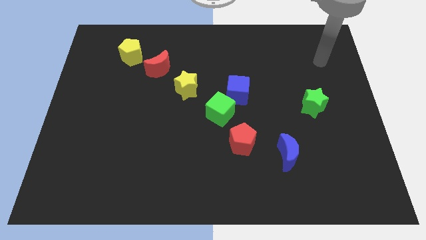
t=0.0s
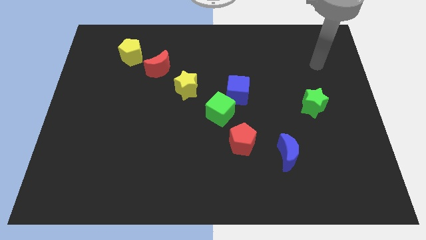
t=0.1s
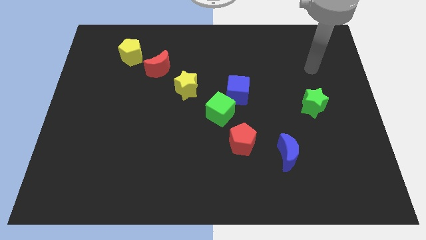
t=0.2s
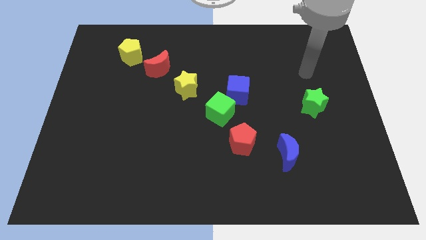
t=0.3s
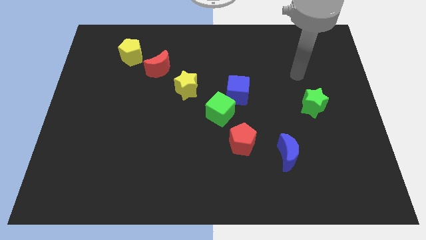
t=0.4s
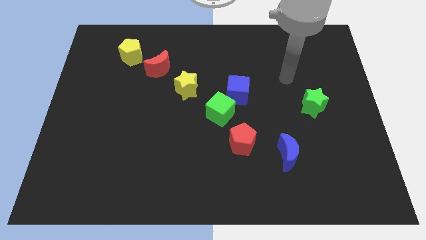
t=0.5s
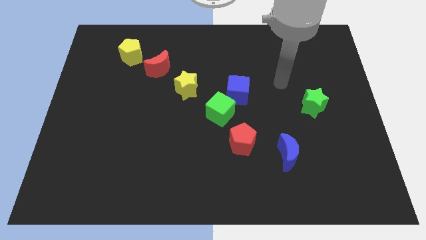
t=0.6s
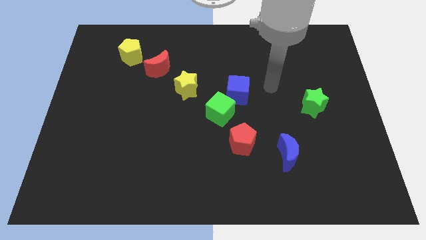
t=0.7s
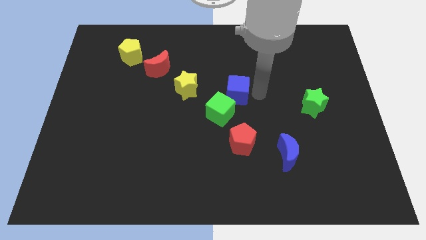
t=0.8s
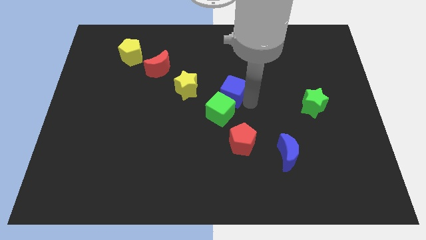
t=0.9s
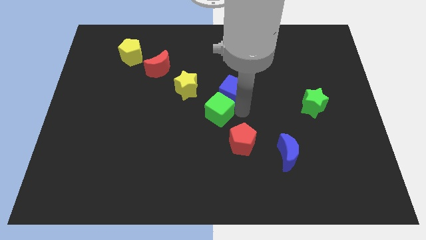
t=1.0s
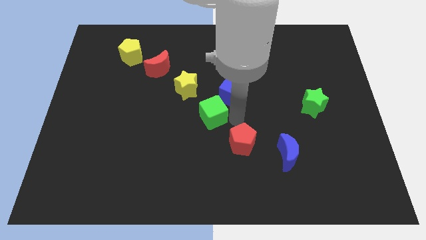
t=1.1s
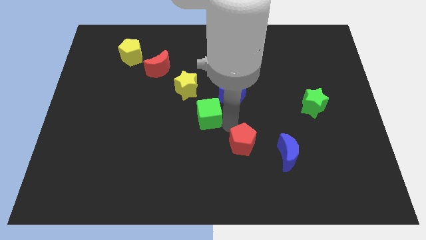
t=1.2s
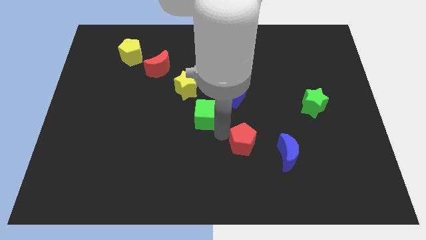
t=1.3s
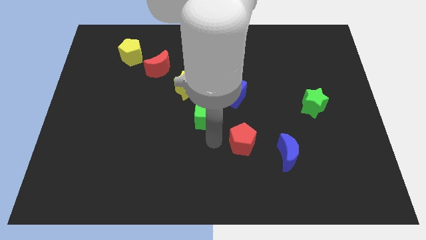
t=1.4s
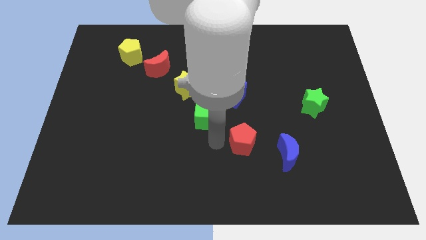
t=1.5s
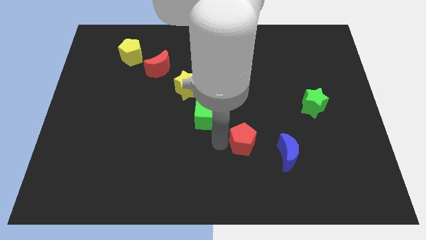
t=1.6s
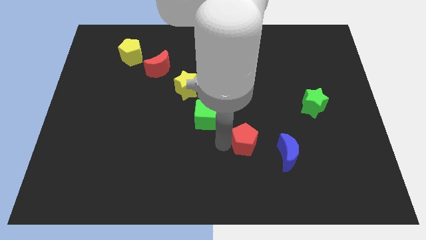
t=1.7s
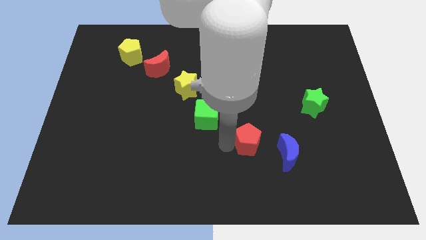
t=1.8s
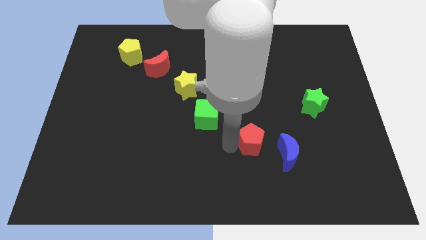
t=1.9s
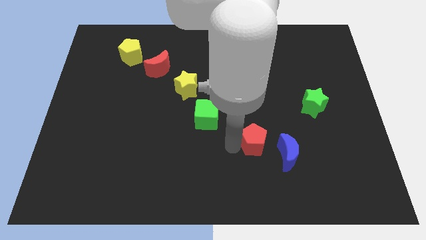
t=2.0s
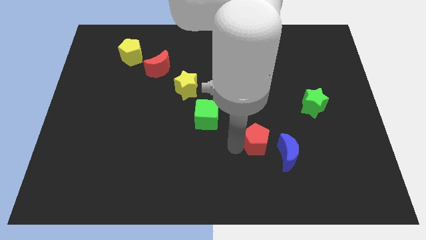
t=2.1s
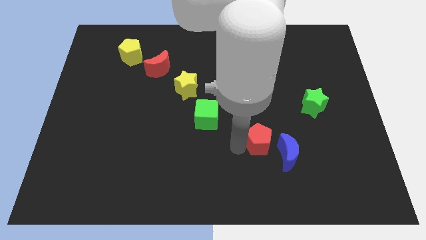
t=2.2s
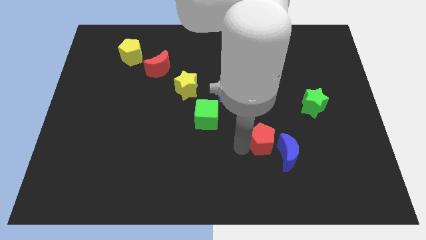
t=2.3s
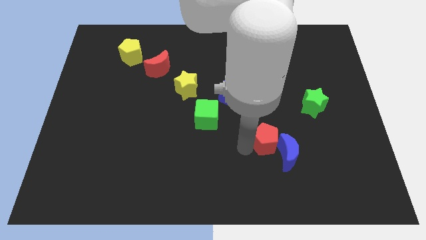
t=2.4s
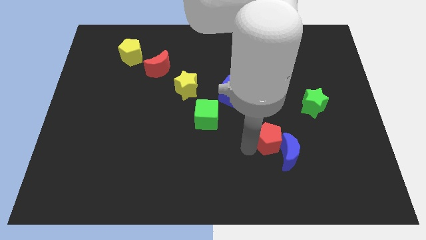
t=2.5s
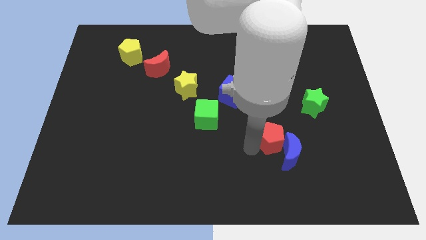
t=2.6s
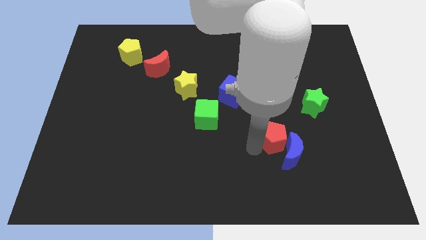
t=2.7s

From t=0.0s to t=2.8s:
slightly move the red pentagon right

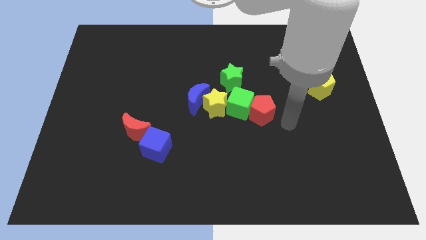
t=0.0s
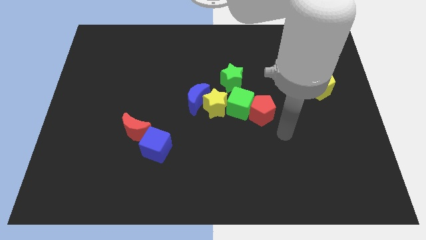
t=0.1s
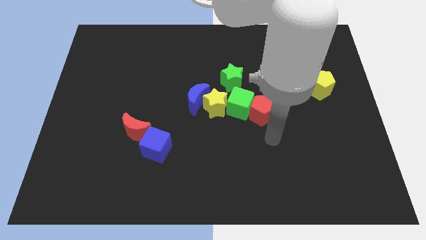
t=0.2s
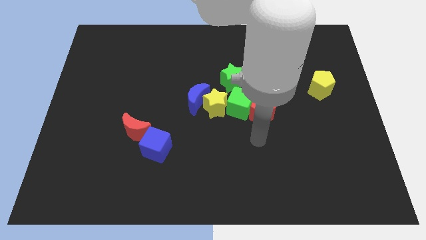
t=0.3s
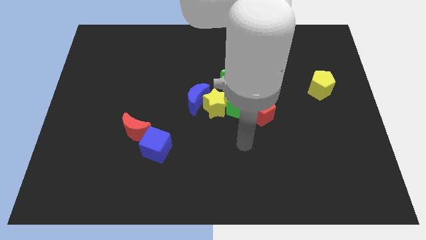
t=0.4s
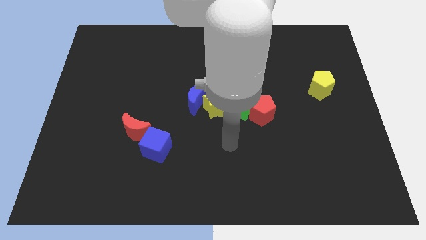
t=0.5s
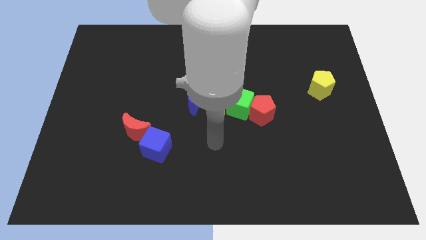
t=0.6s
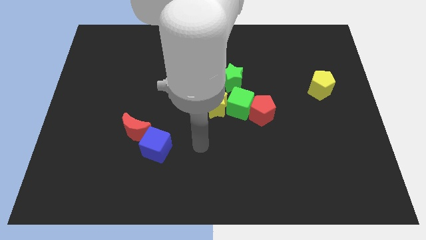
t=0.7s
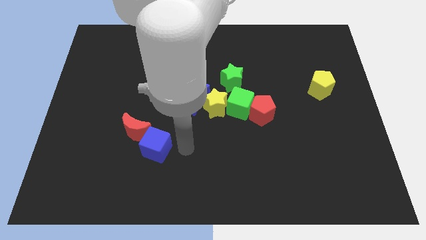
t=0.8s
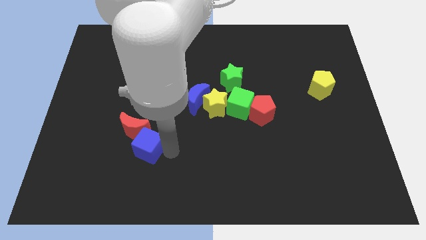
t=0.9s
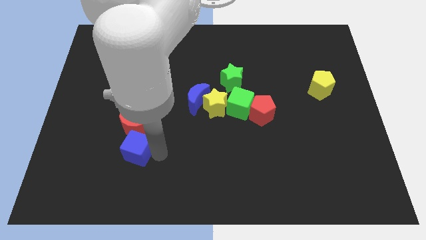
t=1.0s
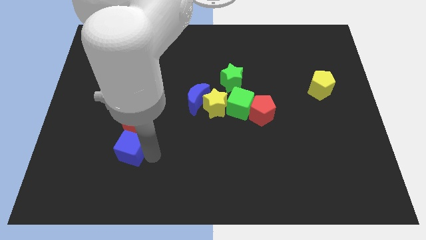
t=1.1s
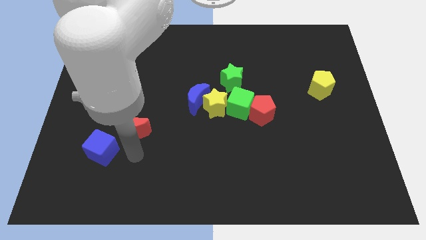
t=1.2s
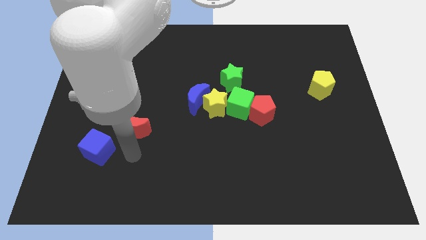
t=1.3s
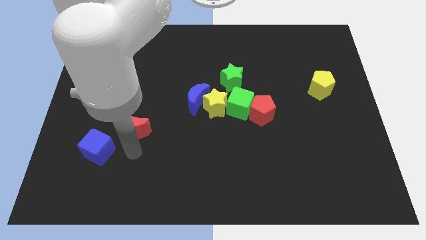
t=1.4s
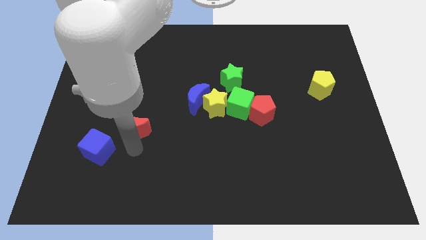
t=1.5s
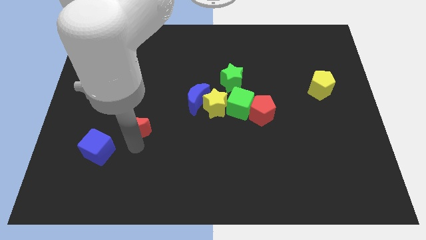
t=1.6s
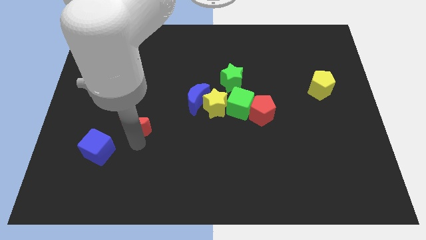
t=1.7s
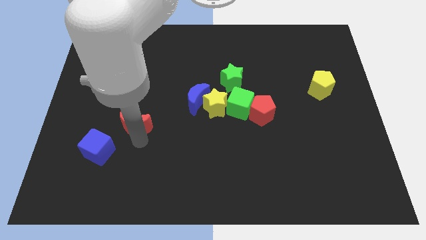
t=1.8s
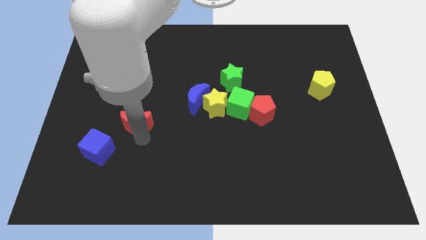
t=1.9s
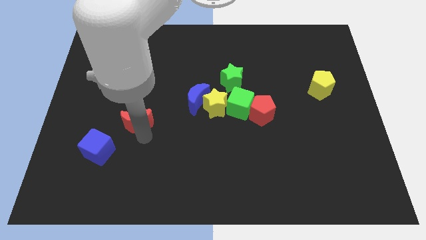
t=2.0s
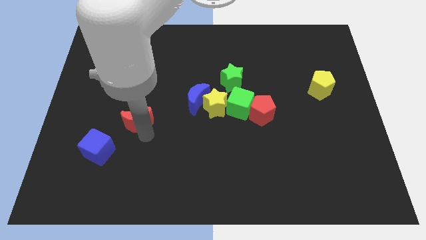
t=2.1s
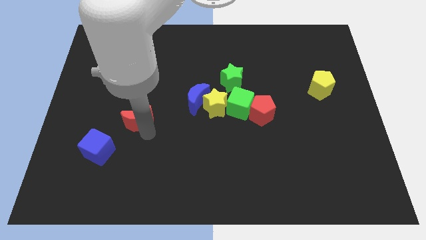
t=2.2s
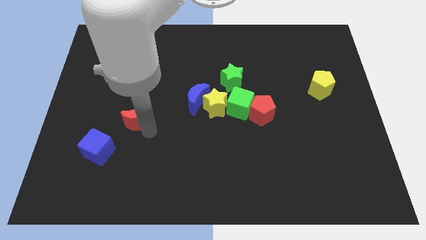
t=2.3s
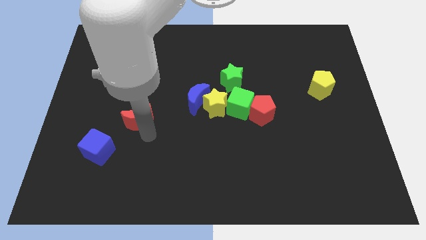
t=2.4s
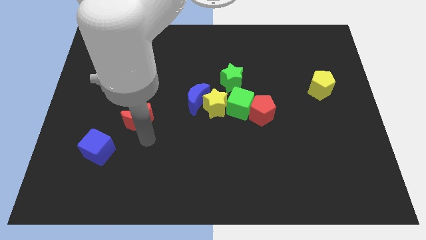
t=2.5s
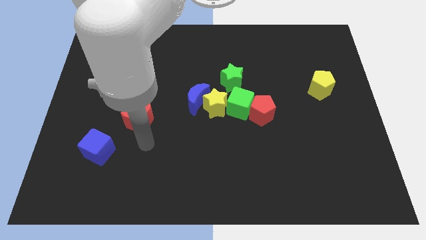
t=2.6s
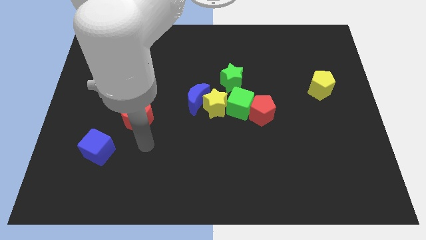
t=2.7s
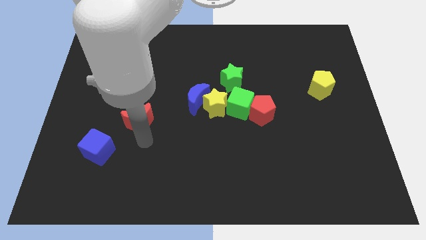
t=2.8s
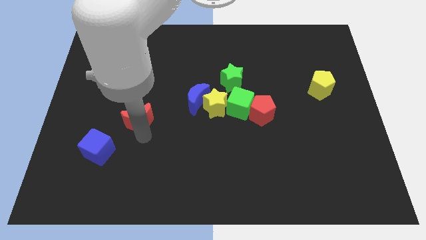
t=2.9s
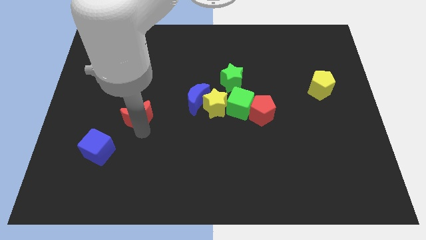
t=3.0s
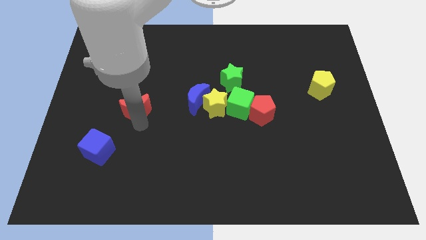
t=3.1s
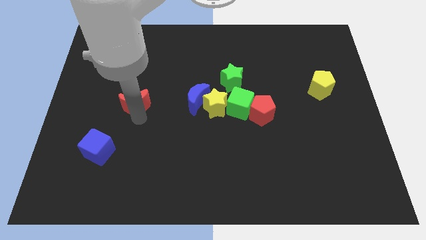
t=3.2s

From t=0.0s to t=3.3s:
slightly move the red moon upwards

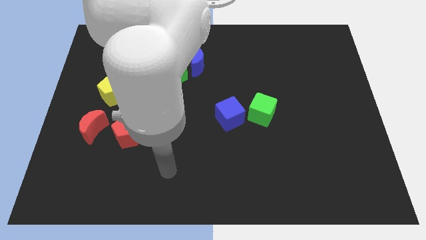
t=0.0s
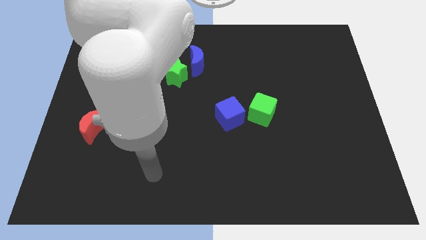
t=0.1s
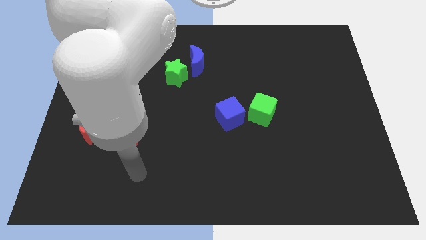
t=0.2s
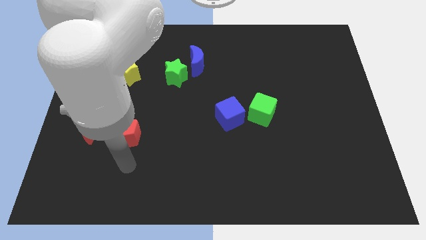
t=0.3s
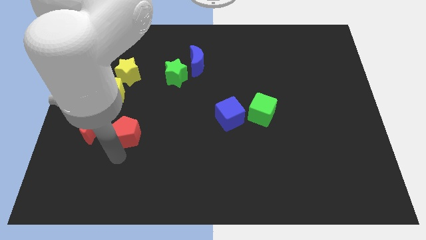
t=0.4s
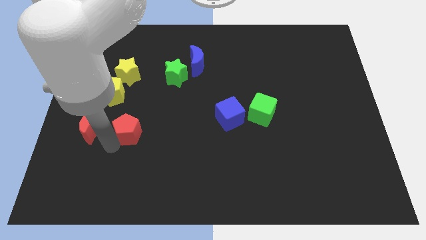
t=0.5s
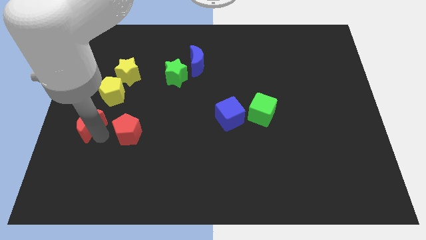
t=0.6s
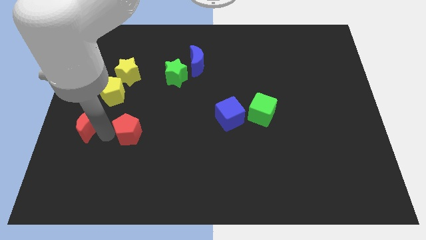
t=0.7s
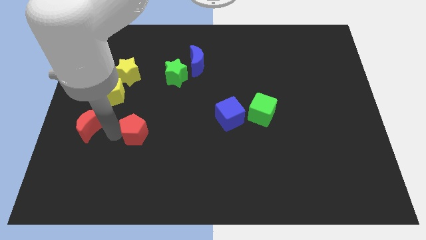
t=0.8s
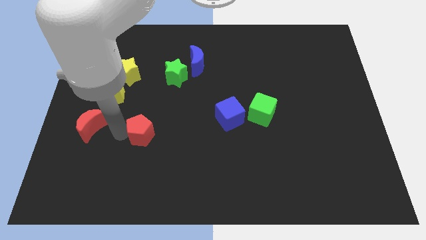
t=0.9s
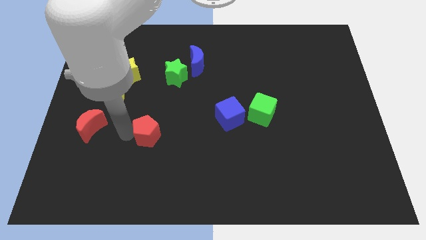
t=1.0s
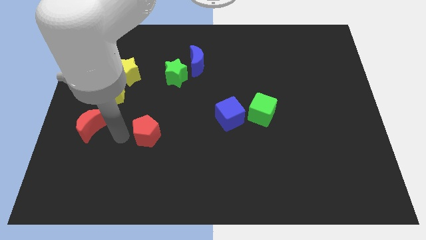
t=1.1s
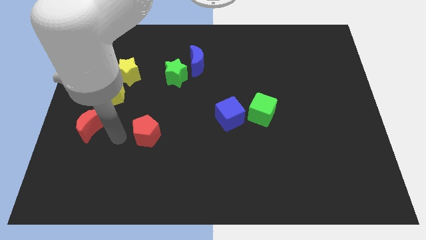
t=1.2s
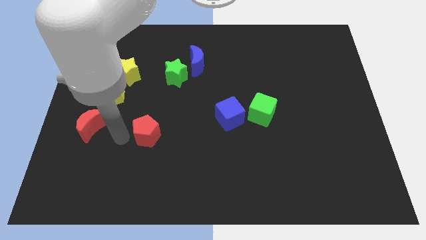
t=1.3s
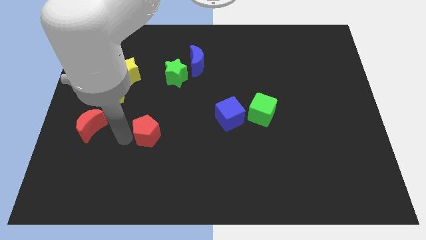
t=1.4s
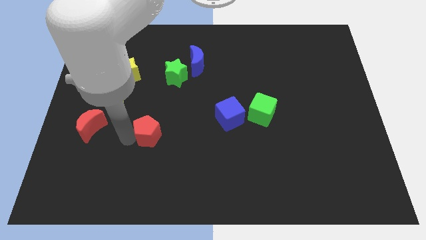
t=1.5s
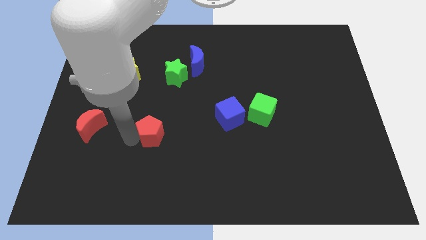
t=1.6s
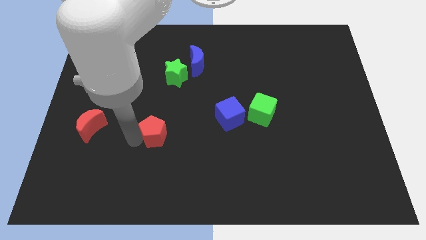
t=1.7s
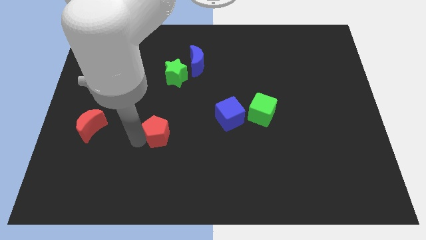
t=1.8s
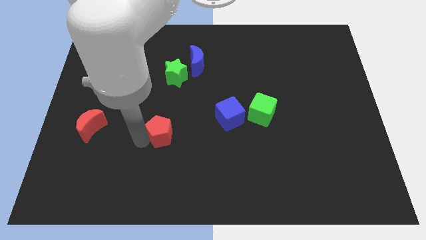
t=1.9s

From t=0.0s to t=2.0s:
slightly slide the red pentagon right
